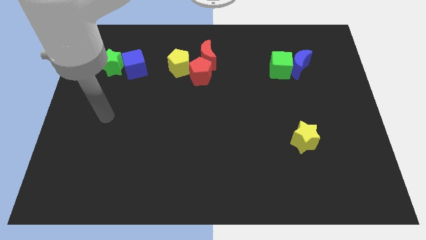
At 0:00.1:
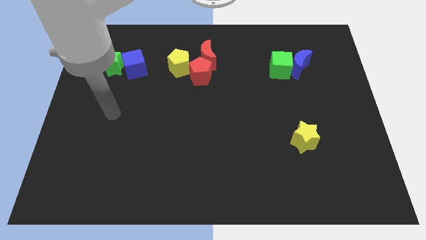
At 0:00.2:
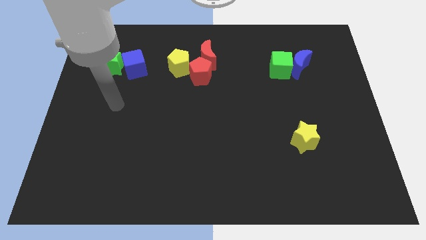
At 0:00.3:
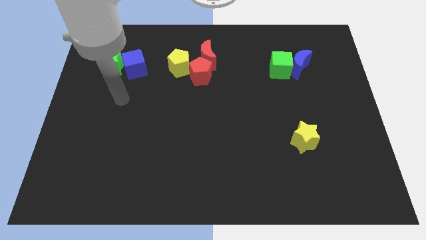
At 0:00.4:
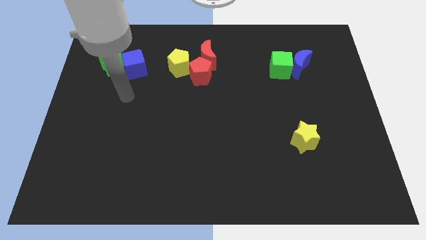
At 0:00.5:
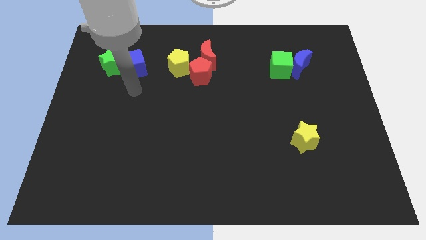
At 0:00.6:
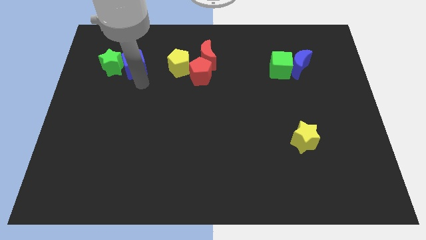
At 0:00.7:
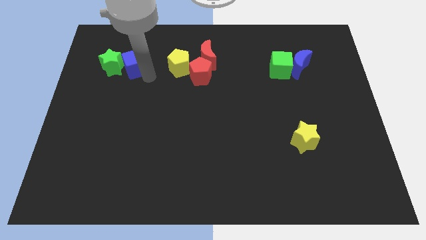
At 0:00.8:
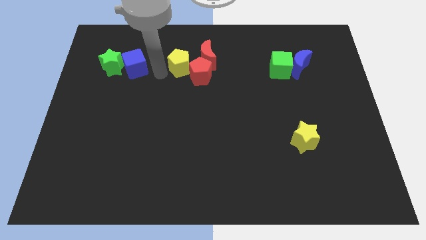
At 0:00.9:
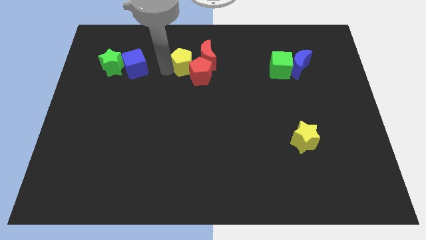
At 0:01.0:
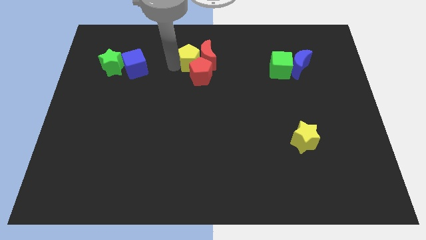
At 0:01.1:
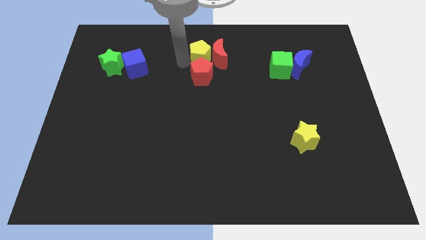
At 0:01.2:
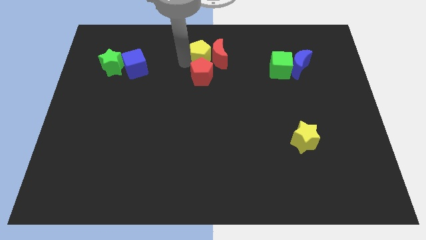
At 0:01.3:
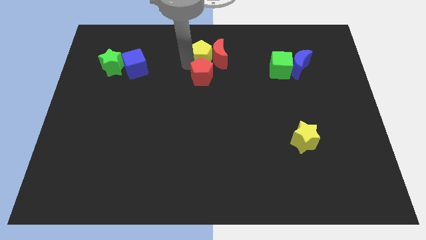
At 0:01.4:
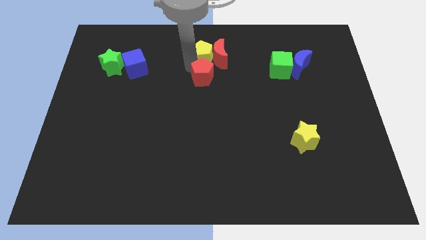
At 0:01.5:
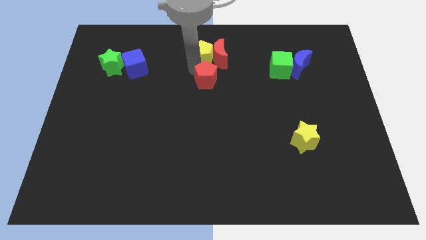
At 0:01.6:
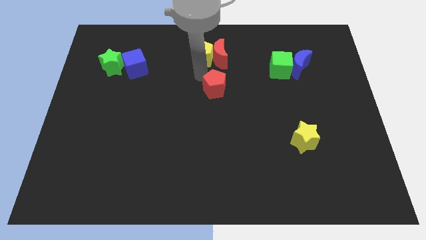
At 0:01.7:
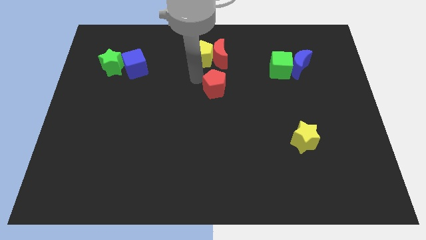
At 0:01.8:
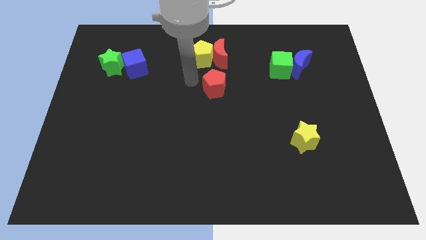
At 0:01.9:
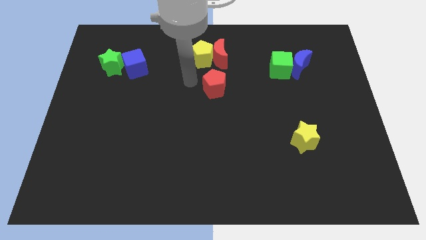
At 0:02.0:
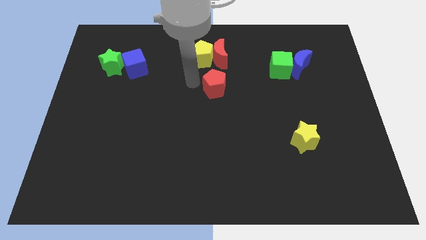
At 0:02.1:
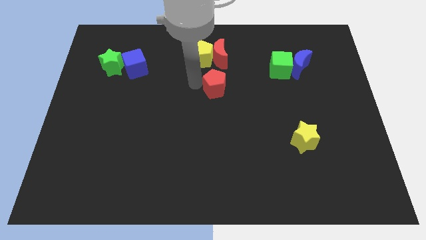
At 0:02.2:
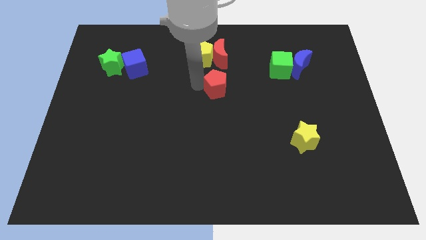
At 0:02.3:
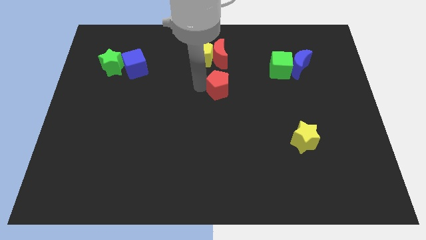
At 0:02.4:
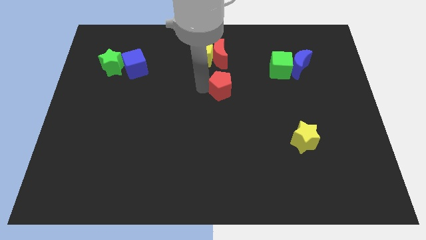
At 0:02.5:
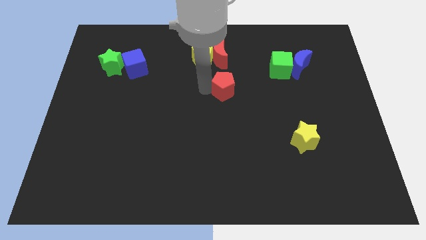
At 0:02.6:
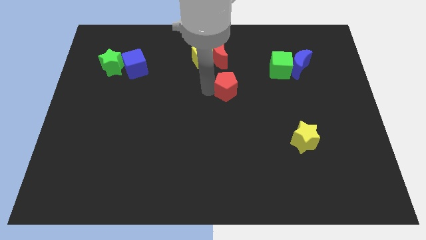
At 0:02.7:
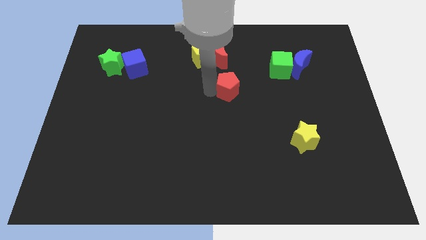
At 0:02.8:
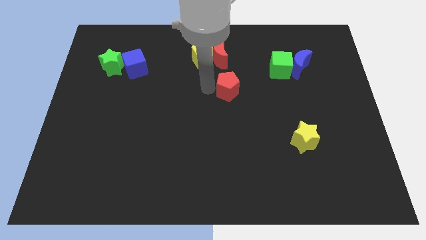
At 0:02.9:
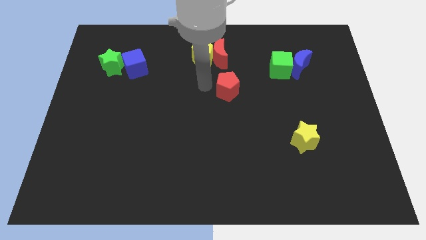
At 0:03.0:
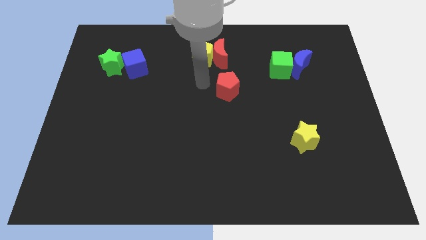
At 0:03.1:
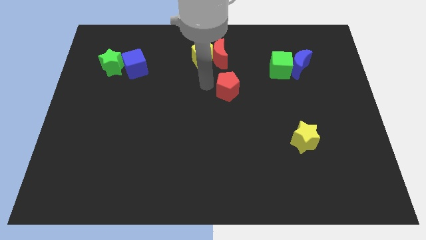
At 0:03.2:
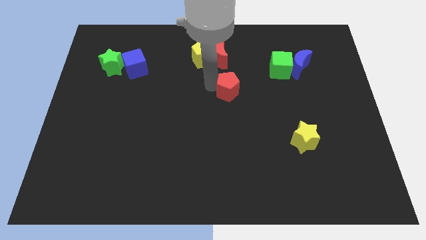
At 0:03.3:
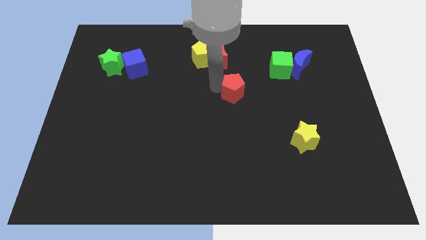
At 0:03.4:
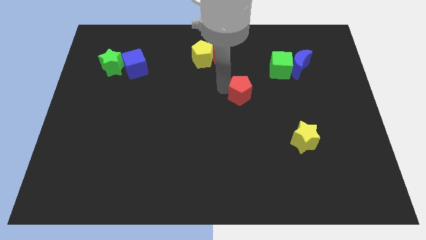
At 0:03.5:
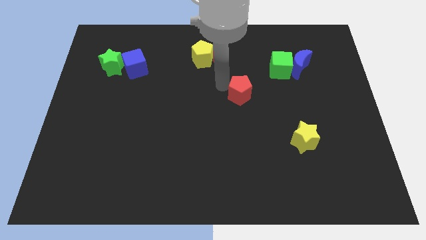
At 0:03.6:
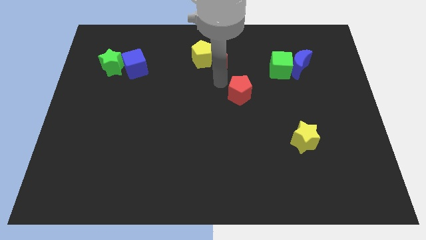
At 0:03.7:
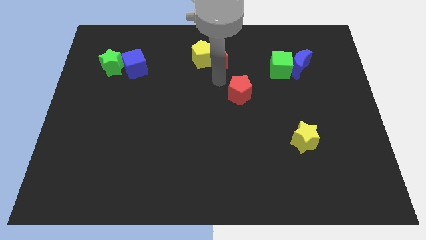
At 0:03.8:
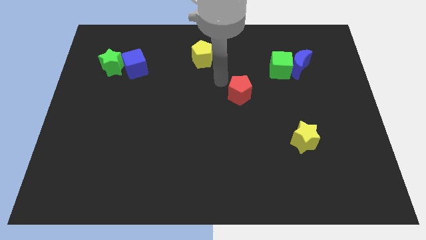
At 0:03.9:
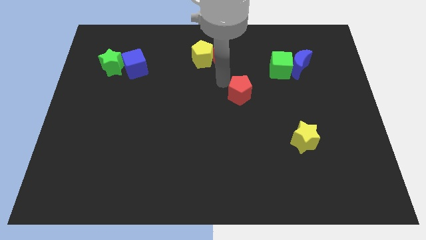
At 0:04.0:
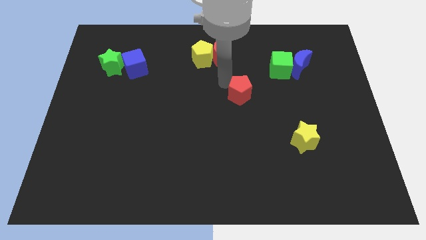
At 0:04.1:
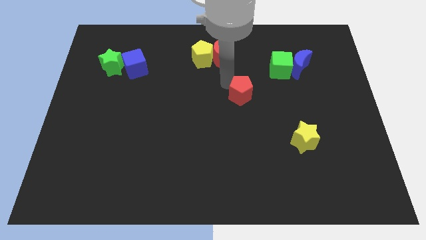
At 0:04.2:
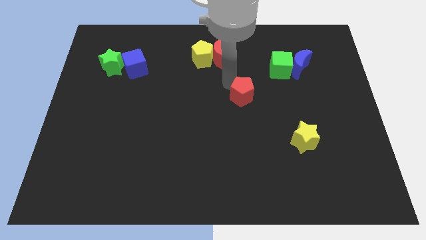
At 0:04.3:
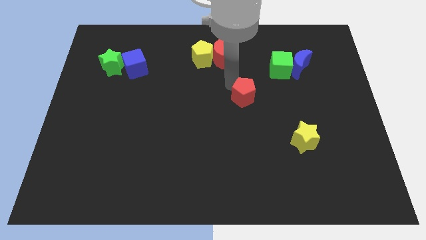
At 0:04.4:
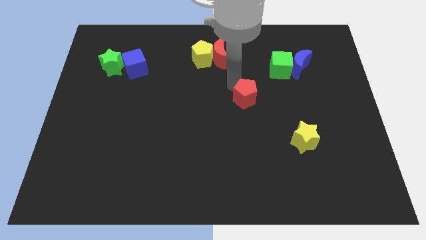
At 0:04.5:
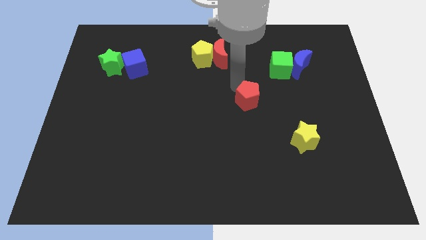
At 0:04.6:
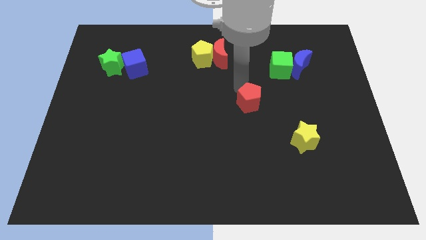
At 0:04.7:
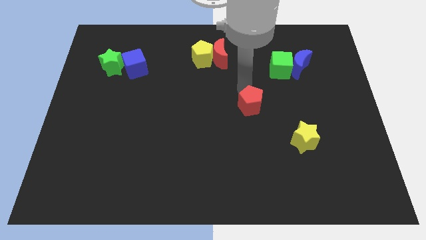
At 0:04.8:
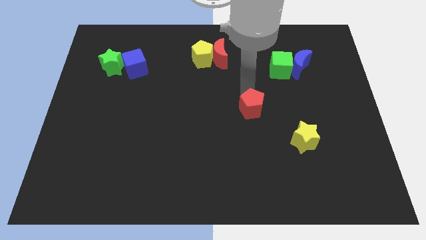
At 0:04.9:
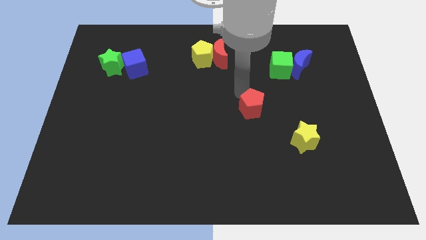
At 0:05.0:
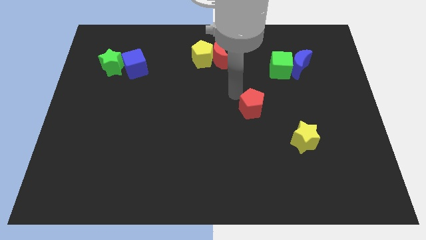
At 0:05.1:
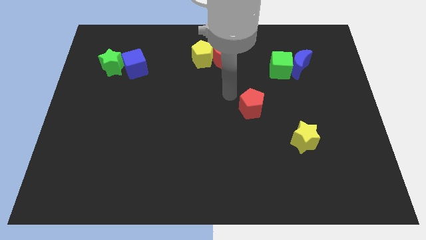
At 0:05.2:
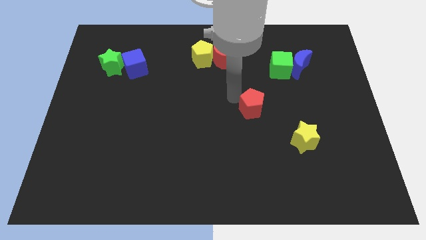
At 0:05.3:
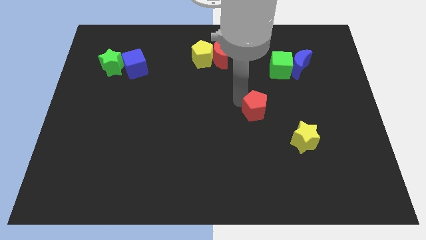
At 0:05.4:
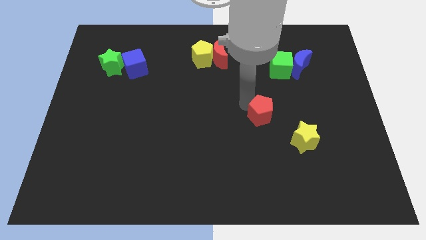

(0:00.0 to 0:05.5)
put the red pentagon to the top left of the yellow star

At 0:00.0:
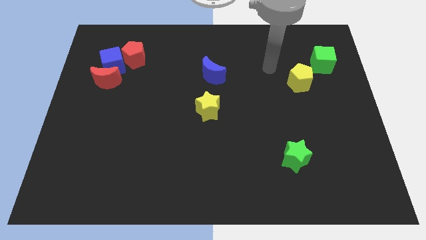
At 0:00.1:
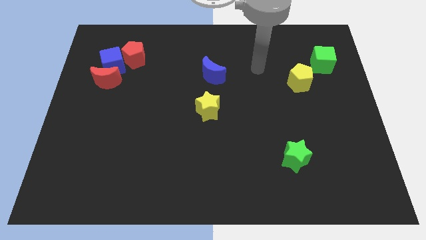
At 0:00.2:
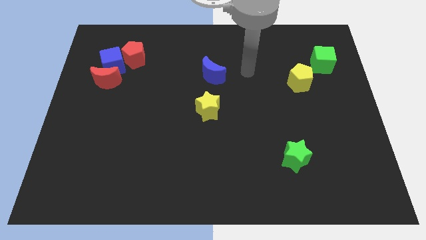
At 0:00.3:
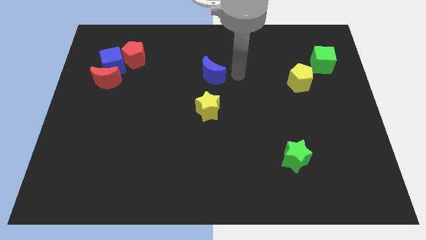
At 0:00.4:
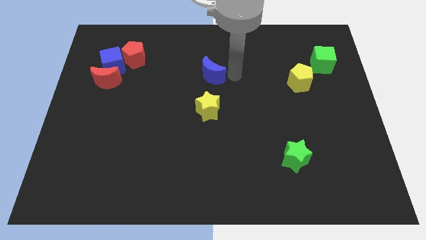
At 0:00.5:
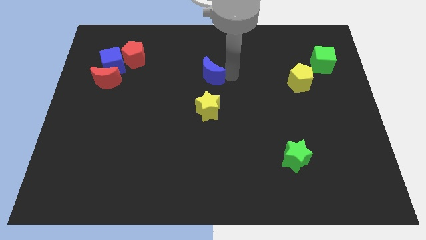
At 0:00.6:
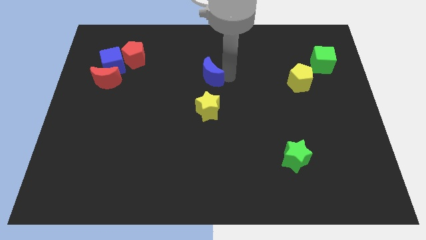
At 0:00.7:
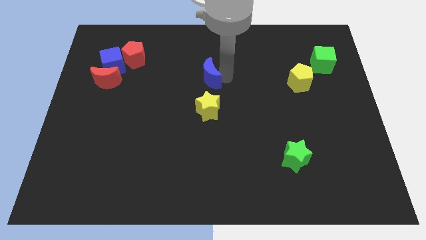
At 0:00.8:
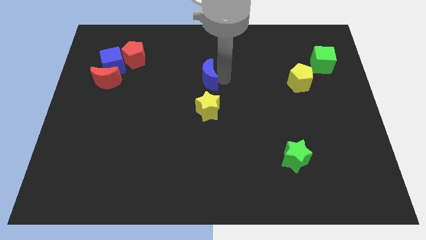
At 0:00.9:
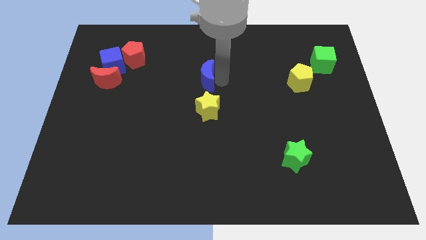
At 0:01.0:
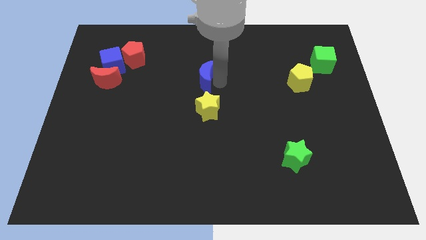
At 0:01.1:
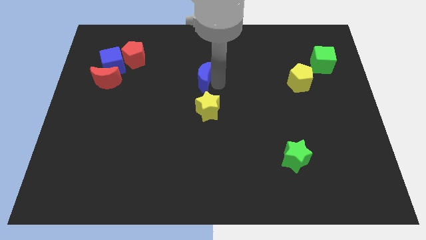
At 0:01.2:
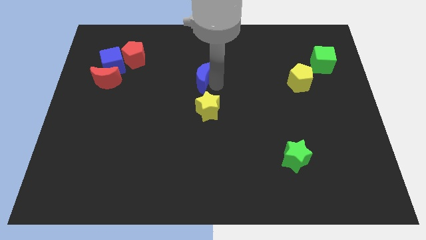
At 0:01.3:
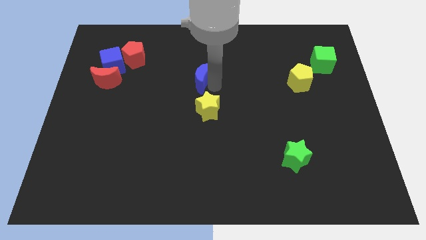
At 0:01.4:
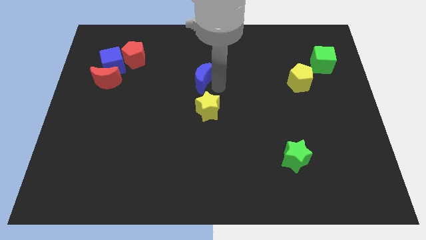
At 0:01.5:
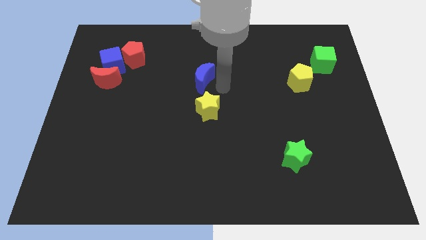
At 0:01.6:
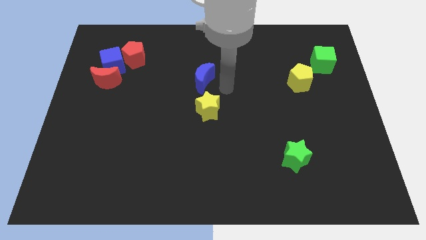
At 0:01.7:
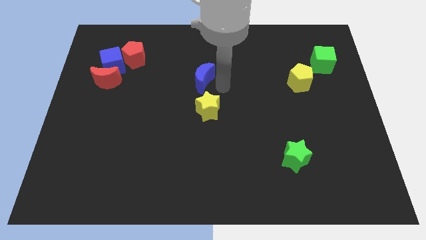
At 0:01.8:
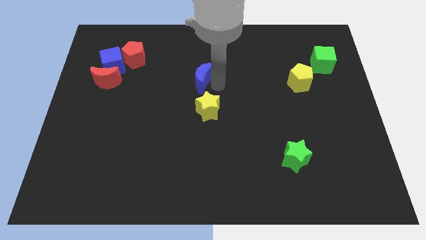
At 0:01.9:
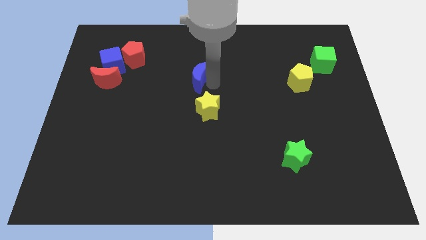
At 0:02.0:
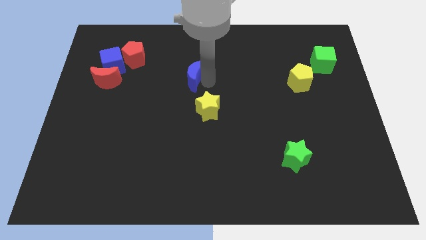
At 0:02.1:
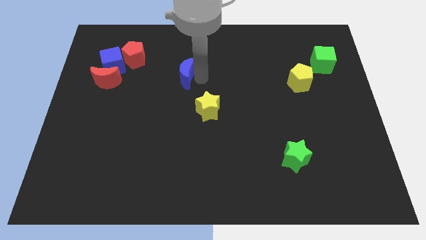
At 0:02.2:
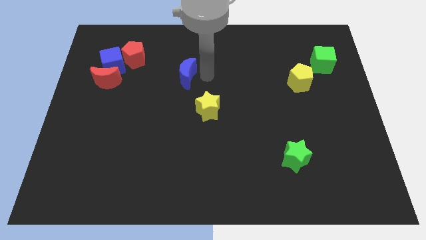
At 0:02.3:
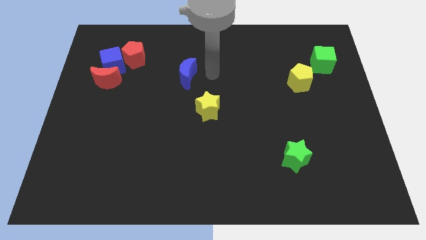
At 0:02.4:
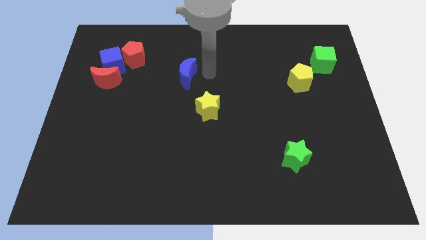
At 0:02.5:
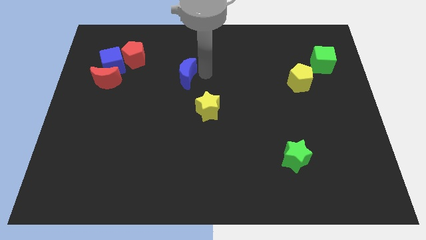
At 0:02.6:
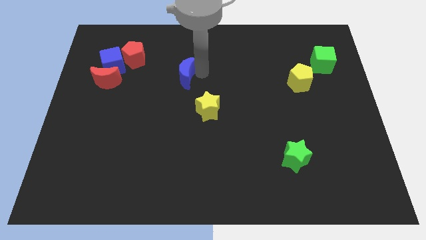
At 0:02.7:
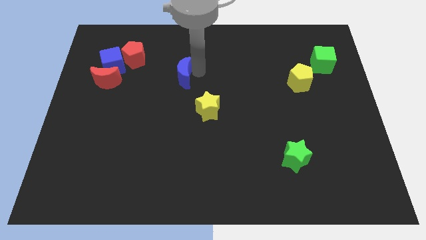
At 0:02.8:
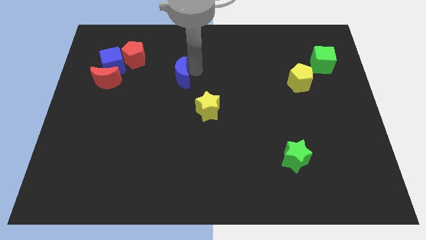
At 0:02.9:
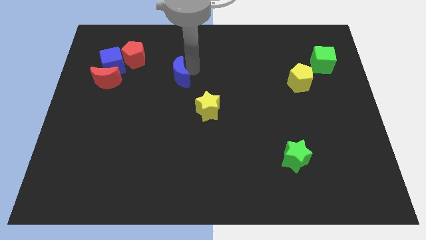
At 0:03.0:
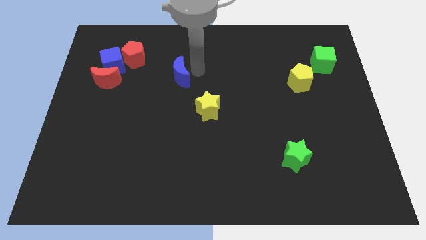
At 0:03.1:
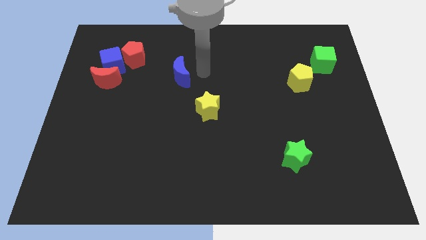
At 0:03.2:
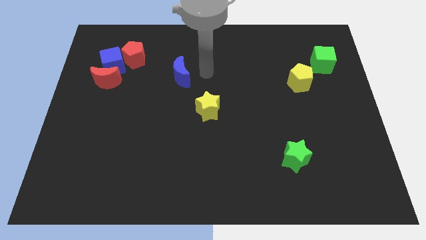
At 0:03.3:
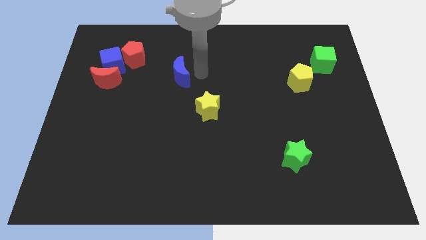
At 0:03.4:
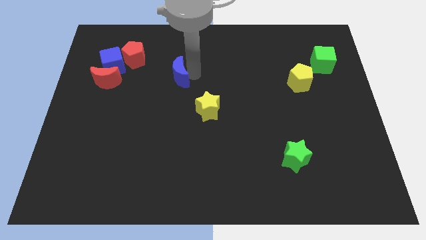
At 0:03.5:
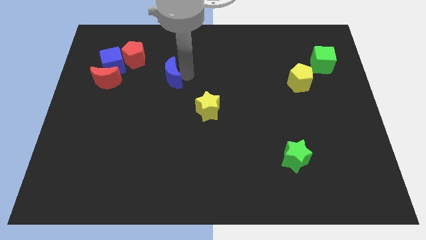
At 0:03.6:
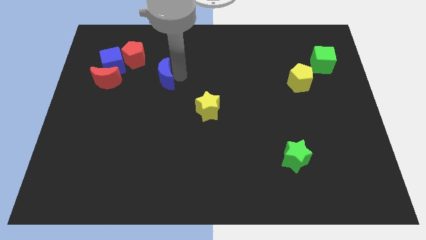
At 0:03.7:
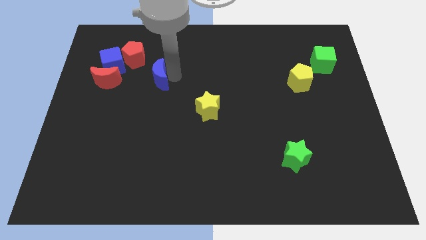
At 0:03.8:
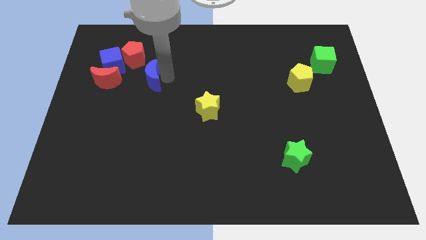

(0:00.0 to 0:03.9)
put the blue moon to the bottom right side of the blue cube
